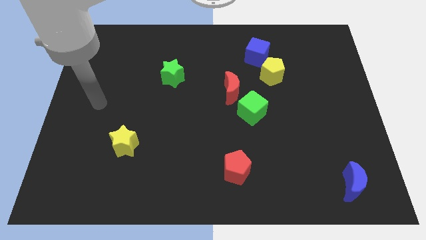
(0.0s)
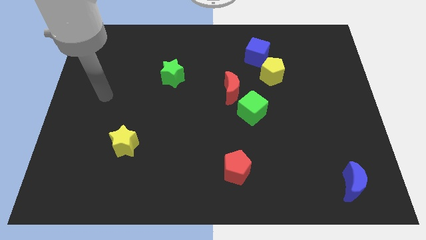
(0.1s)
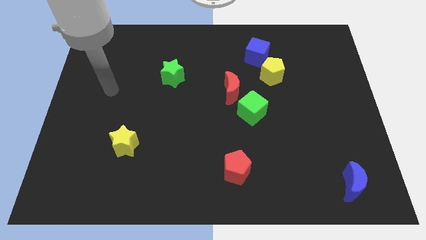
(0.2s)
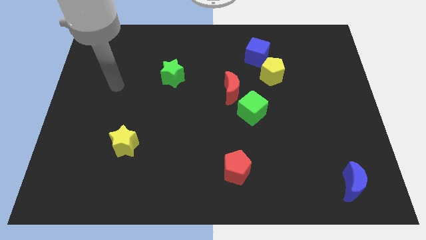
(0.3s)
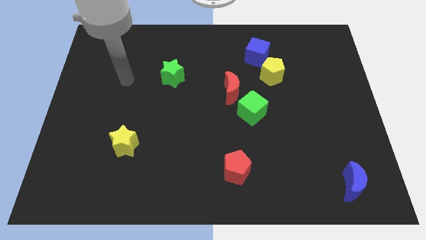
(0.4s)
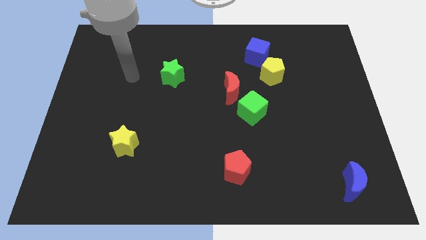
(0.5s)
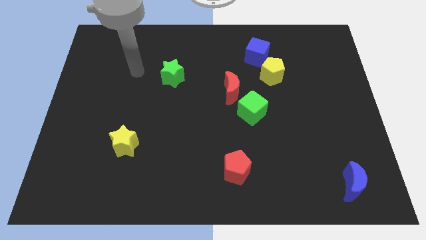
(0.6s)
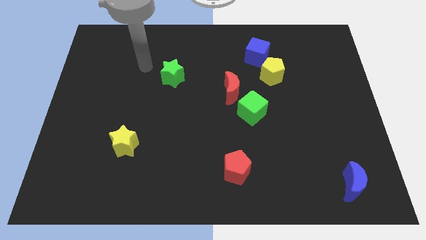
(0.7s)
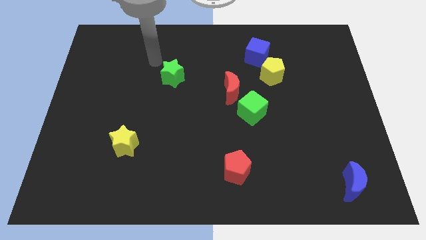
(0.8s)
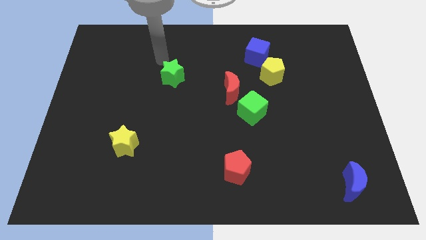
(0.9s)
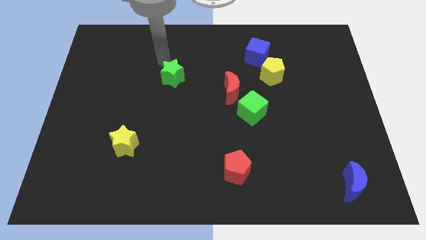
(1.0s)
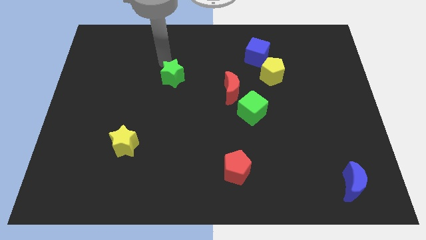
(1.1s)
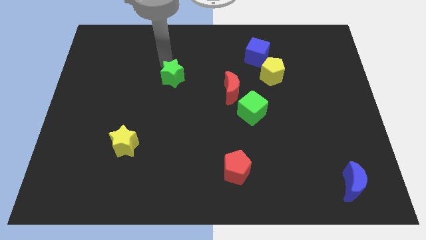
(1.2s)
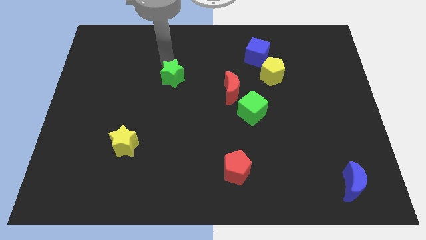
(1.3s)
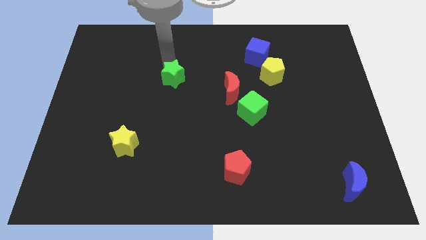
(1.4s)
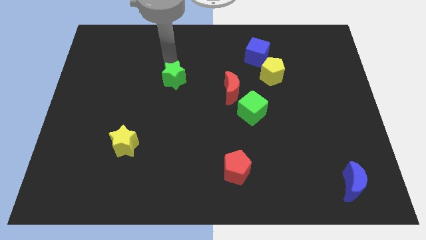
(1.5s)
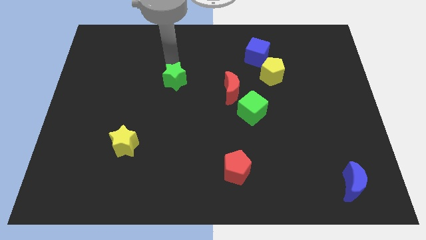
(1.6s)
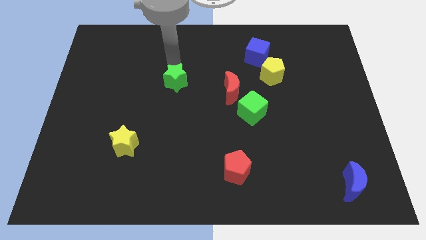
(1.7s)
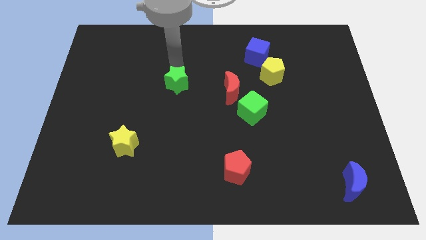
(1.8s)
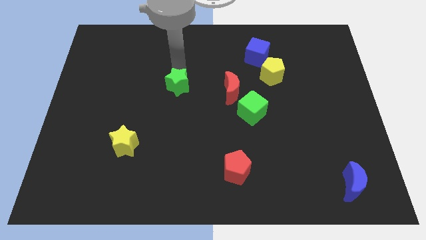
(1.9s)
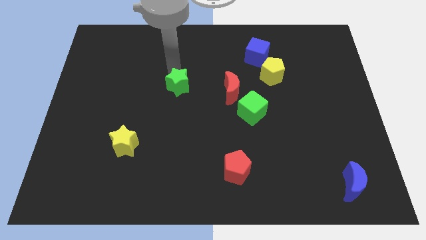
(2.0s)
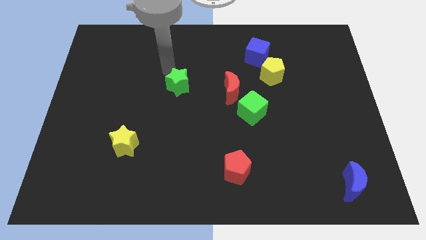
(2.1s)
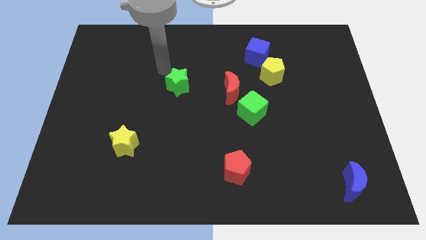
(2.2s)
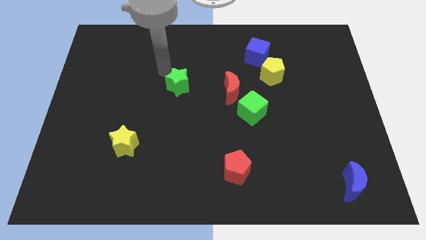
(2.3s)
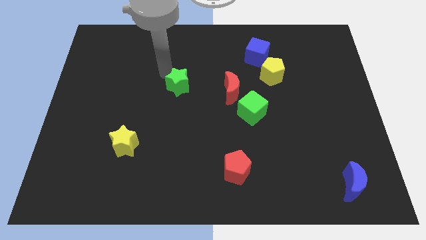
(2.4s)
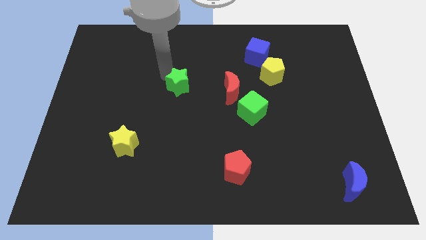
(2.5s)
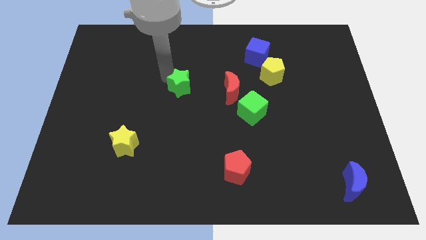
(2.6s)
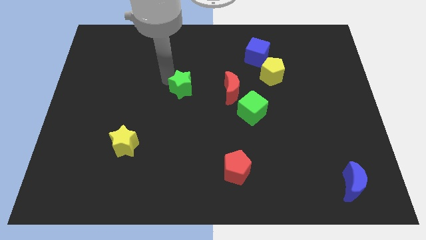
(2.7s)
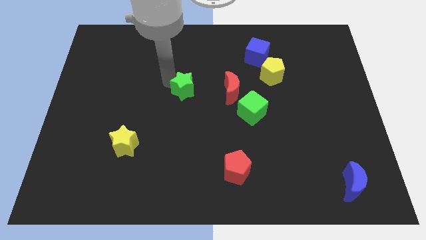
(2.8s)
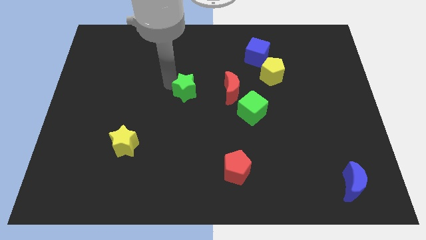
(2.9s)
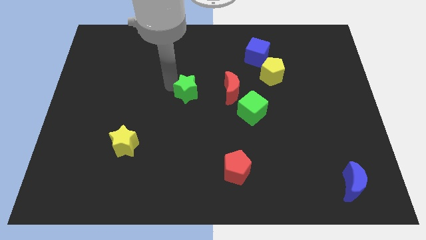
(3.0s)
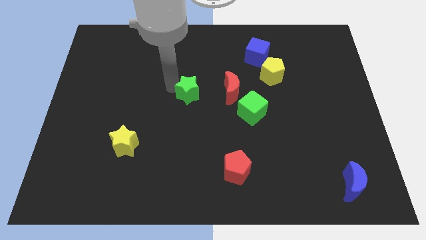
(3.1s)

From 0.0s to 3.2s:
move the green star a little down and then right

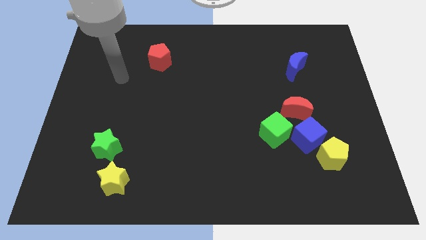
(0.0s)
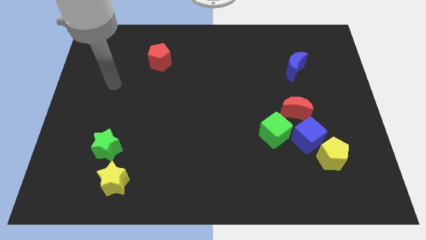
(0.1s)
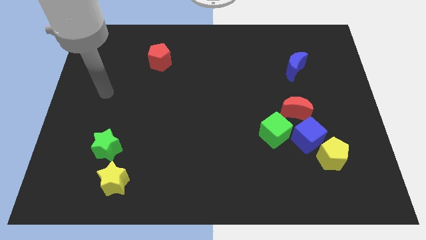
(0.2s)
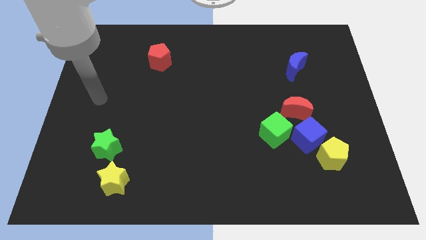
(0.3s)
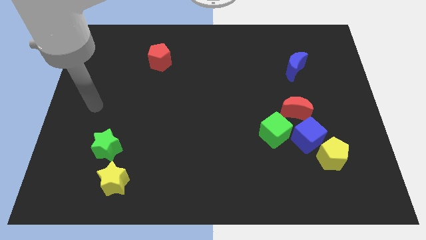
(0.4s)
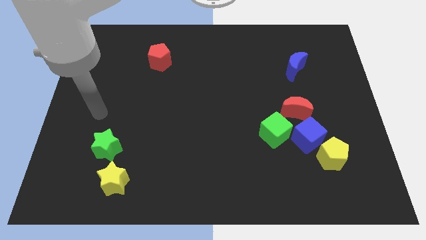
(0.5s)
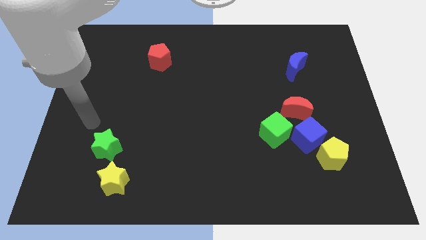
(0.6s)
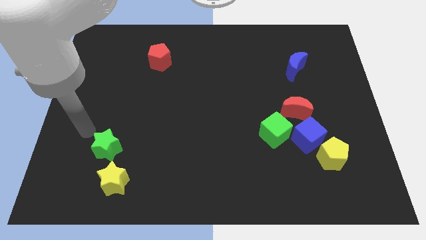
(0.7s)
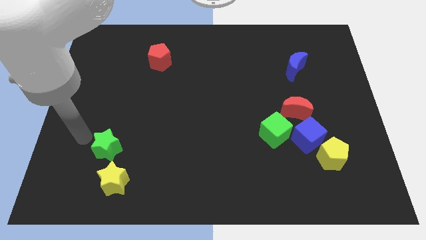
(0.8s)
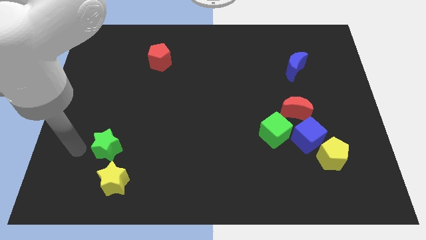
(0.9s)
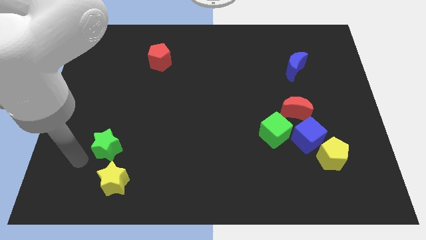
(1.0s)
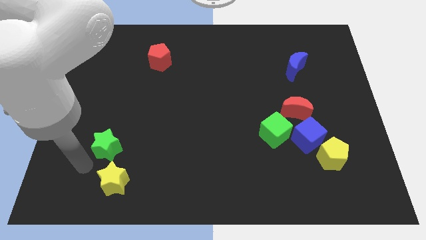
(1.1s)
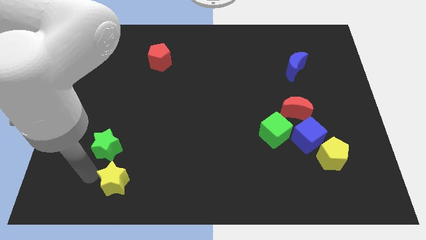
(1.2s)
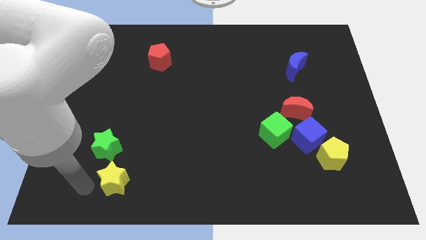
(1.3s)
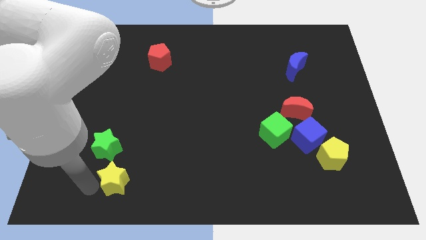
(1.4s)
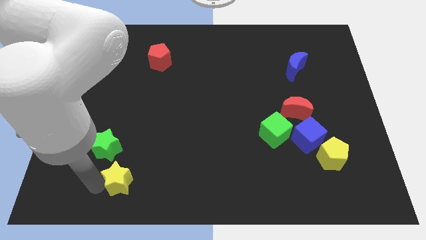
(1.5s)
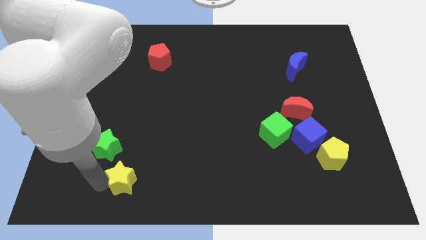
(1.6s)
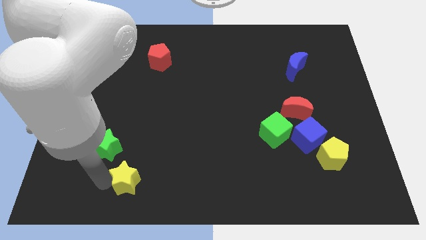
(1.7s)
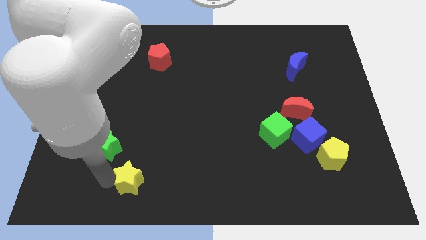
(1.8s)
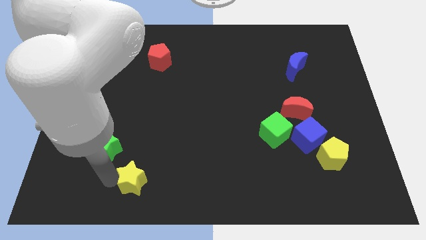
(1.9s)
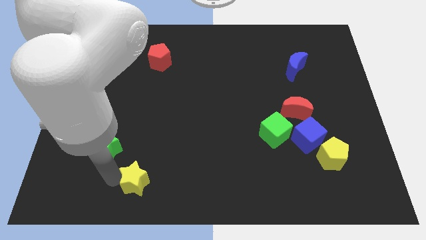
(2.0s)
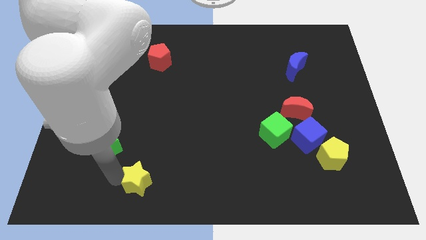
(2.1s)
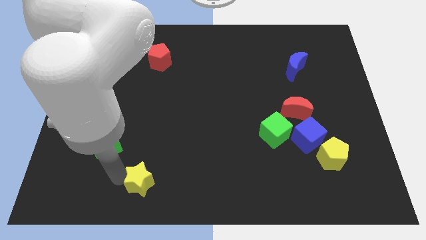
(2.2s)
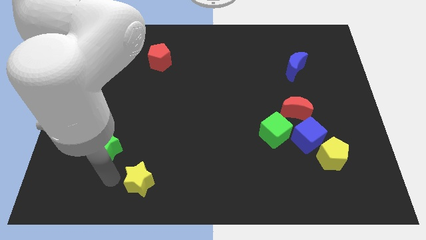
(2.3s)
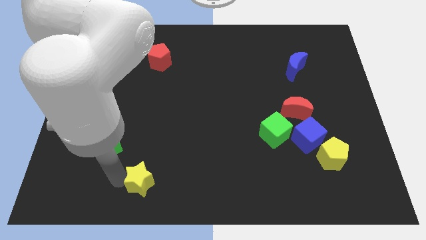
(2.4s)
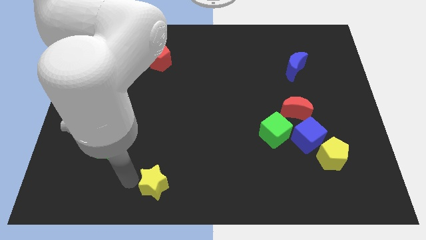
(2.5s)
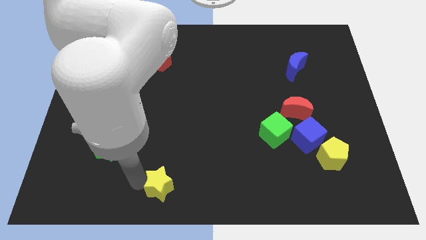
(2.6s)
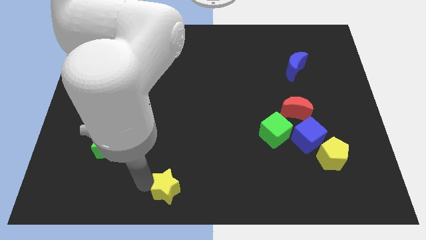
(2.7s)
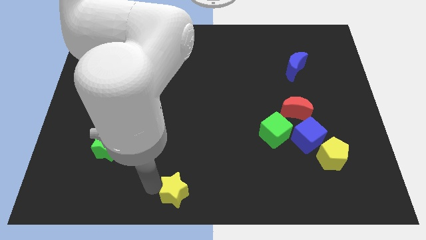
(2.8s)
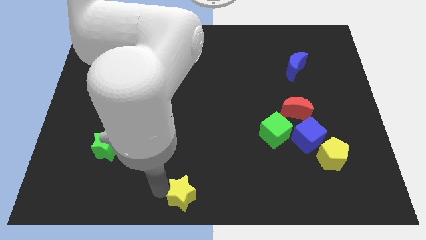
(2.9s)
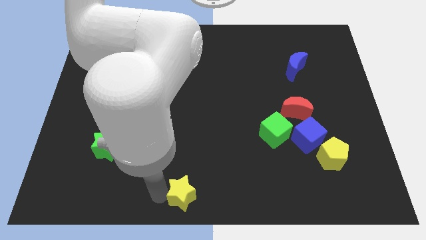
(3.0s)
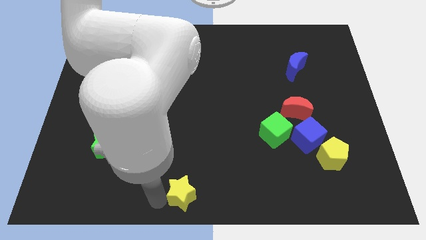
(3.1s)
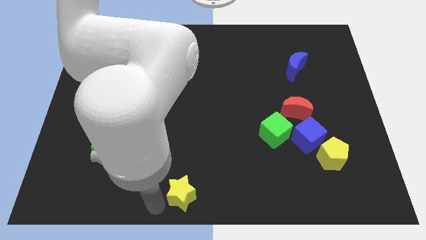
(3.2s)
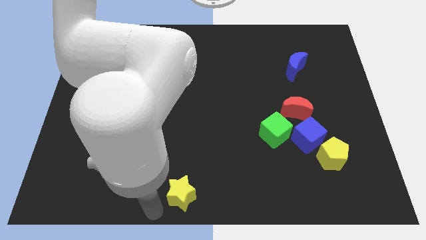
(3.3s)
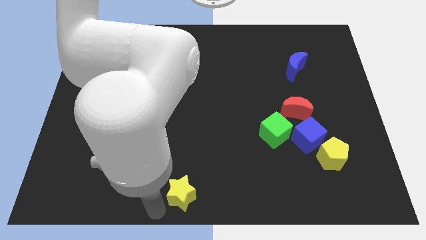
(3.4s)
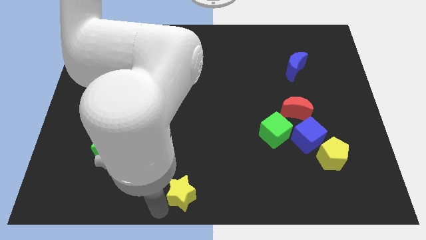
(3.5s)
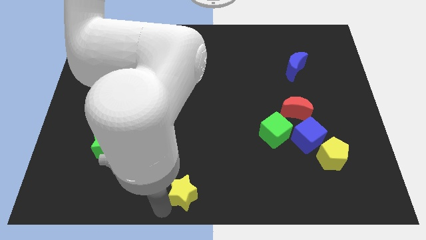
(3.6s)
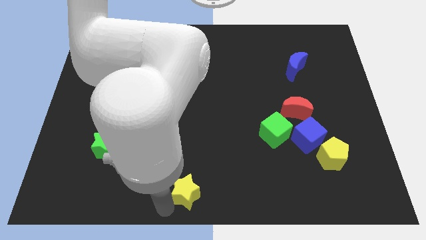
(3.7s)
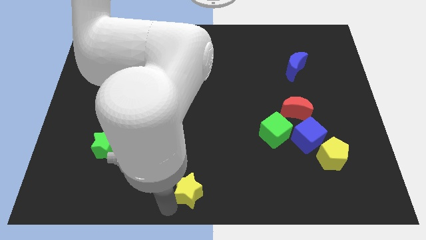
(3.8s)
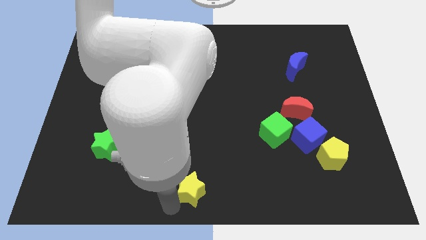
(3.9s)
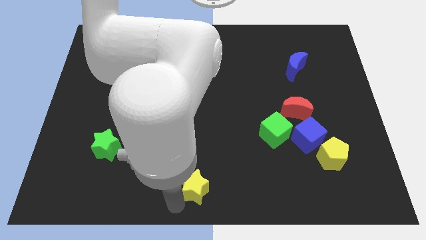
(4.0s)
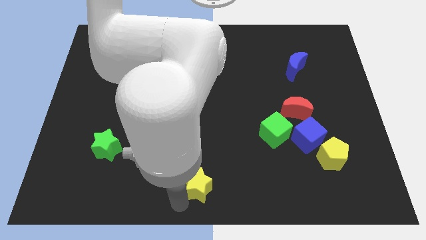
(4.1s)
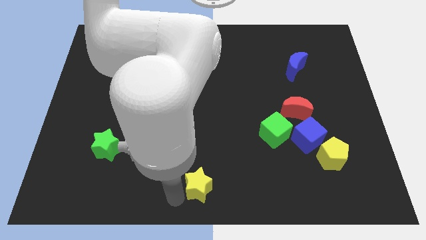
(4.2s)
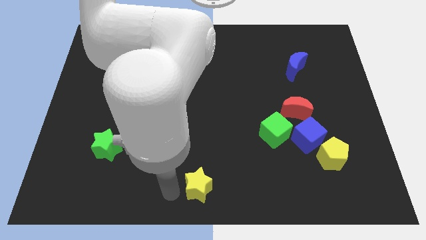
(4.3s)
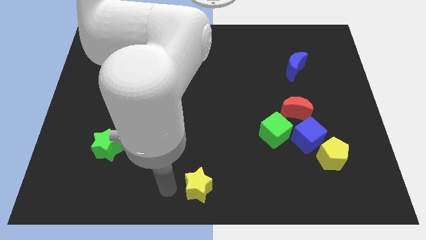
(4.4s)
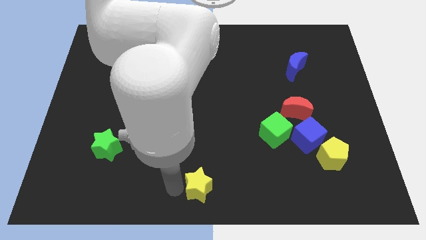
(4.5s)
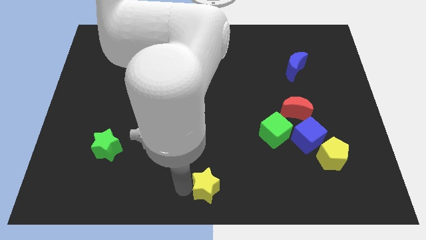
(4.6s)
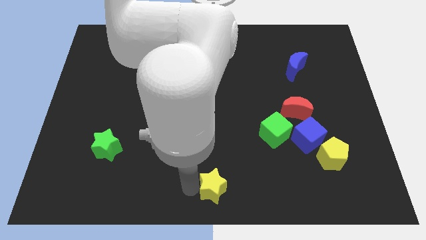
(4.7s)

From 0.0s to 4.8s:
move the yellow star right
